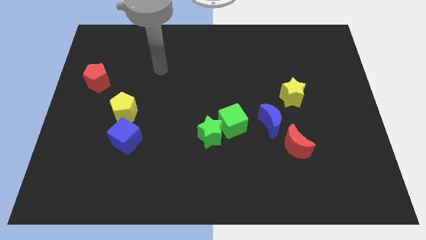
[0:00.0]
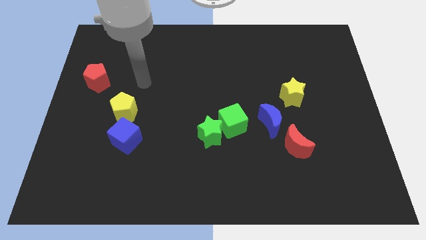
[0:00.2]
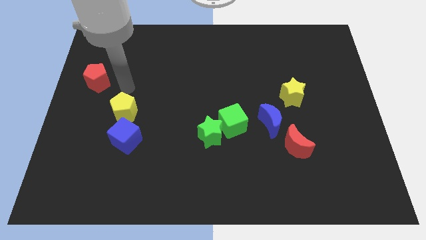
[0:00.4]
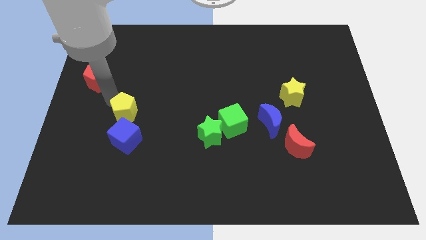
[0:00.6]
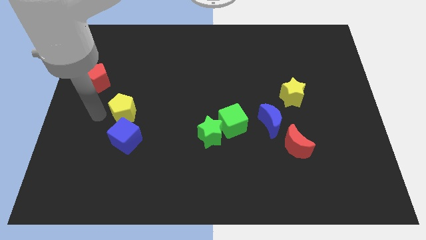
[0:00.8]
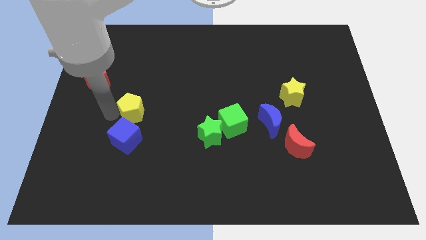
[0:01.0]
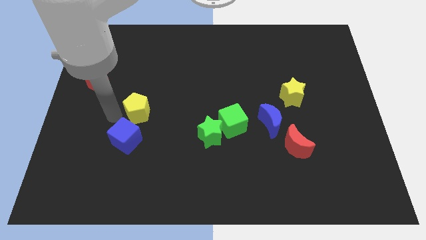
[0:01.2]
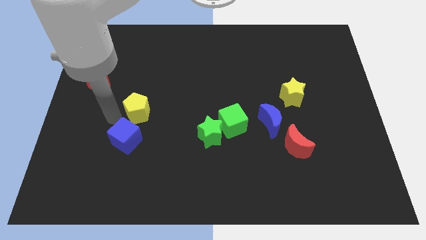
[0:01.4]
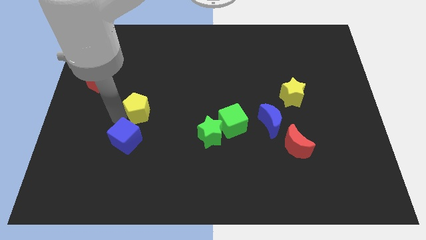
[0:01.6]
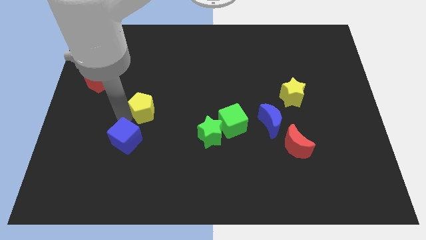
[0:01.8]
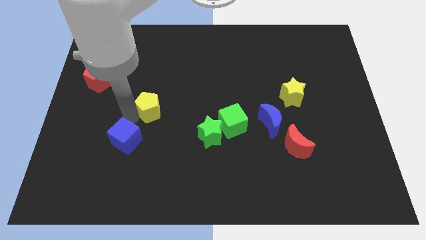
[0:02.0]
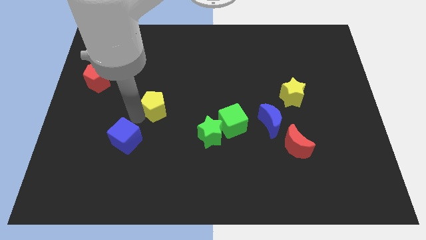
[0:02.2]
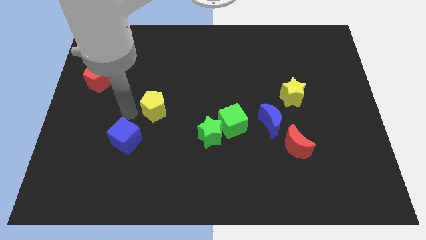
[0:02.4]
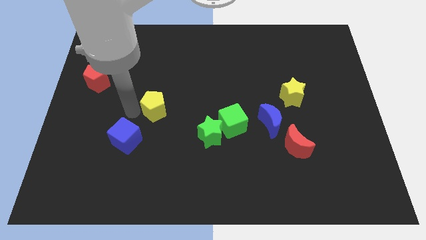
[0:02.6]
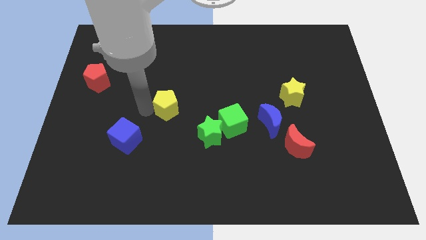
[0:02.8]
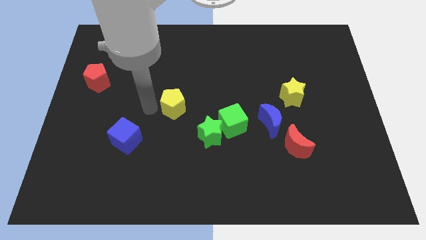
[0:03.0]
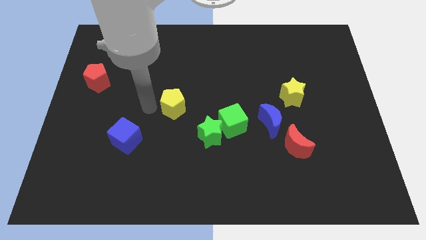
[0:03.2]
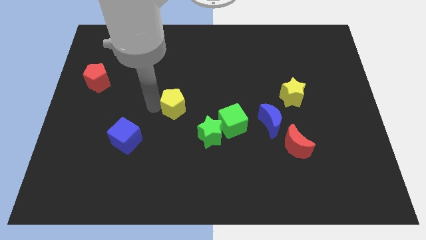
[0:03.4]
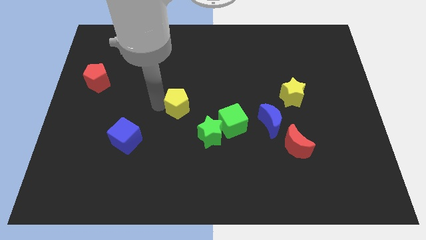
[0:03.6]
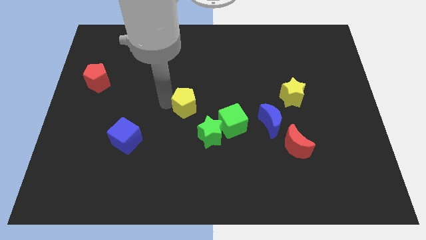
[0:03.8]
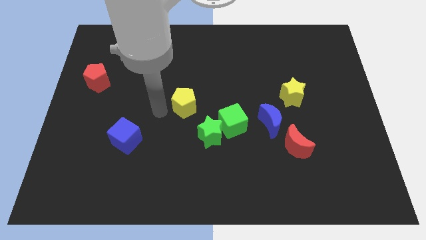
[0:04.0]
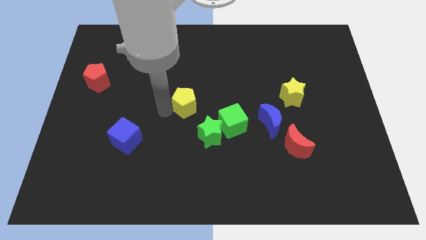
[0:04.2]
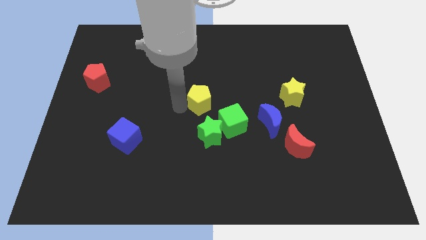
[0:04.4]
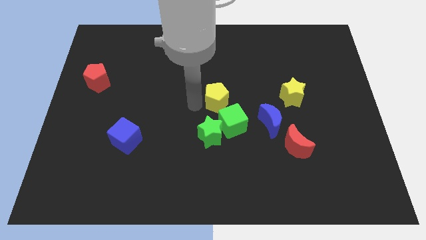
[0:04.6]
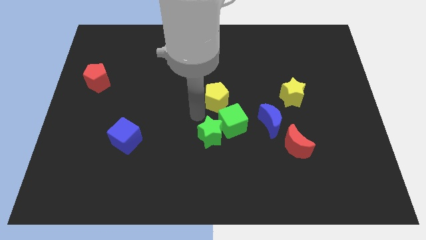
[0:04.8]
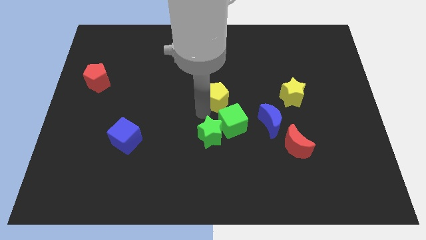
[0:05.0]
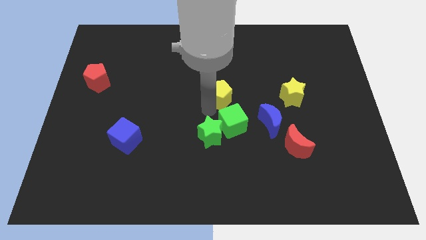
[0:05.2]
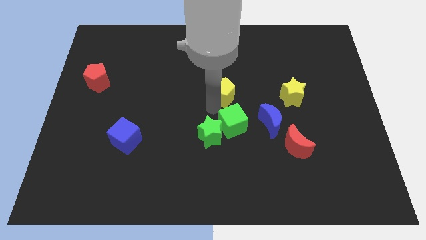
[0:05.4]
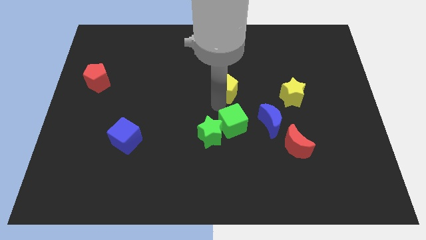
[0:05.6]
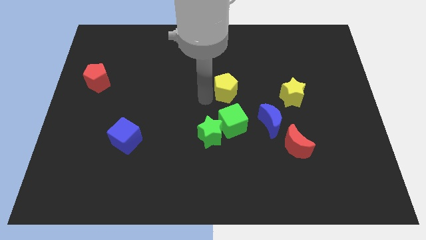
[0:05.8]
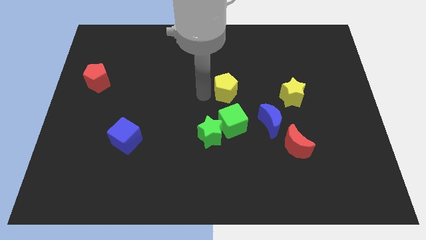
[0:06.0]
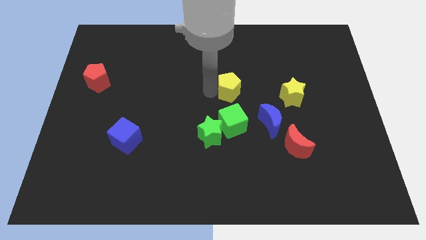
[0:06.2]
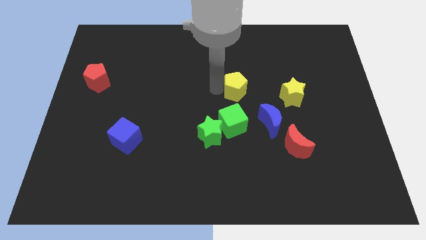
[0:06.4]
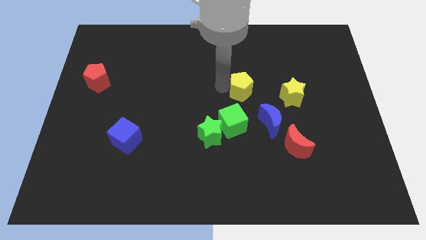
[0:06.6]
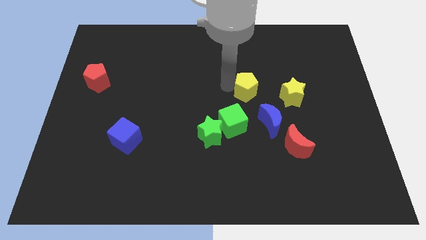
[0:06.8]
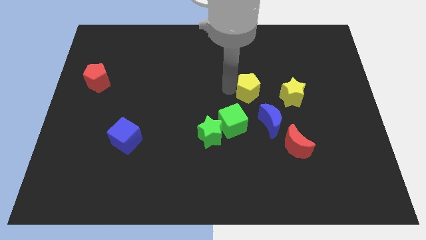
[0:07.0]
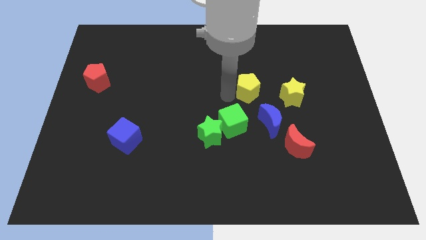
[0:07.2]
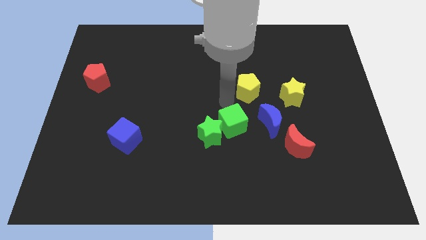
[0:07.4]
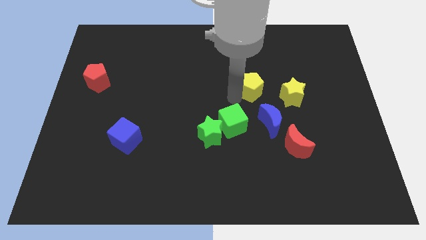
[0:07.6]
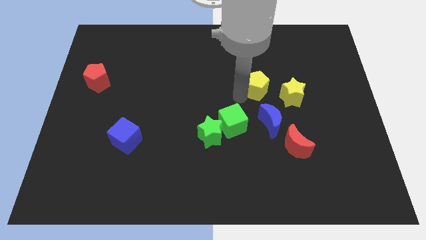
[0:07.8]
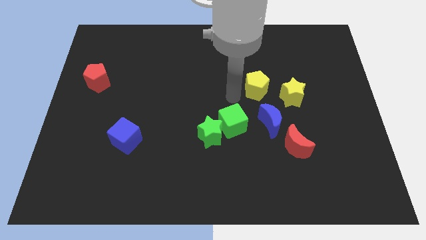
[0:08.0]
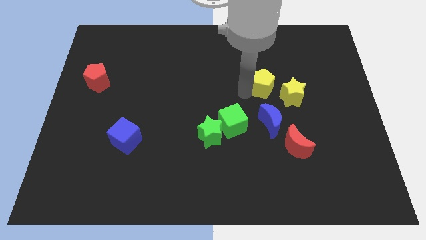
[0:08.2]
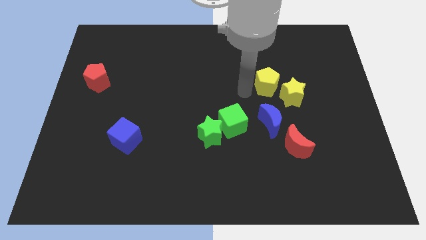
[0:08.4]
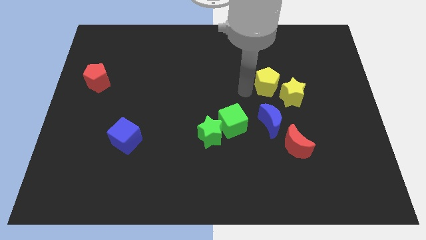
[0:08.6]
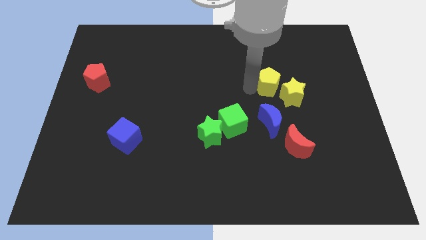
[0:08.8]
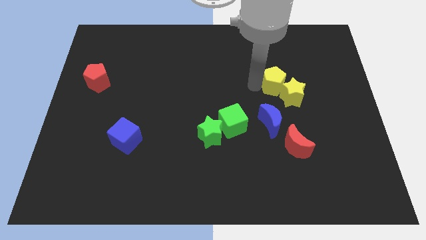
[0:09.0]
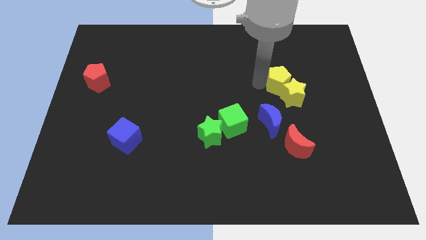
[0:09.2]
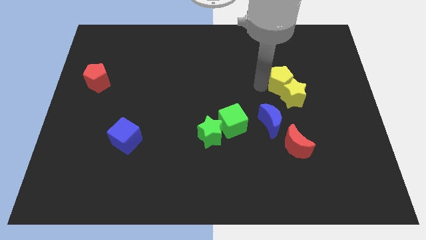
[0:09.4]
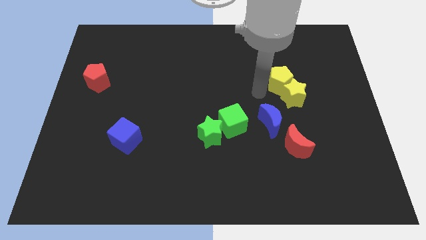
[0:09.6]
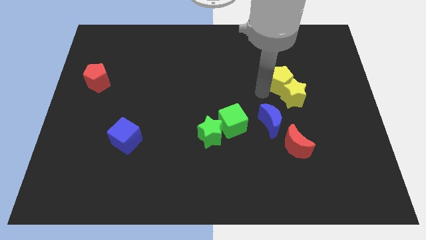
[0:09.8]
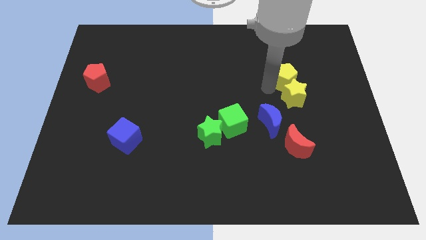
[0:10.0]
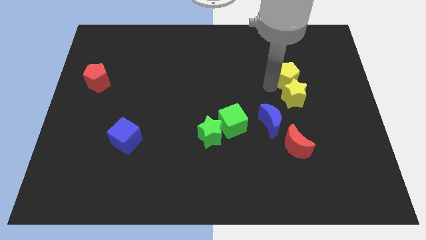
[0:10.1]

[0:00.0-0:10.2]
put the yellow pentagon to the top right of the yellow star

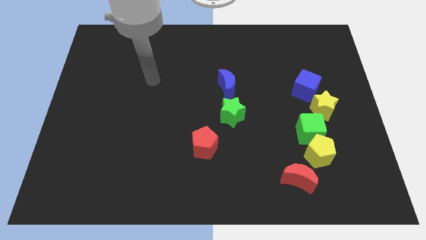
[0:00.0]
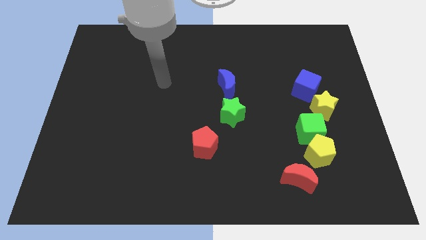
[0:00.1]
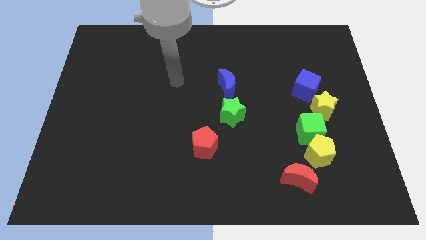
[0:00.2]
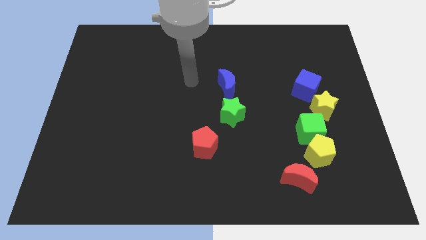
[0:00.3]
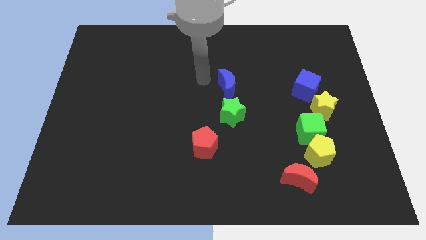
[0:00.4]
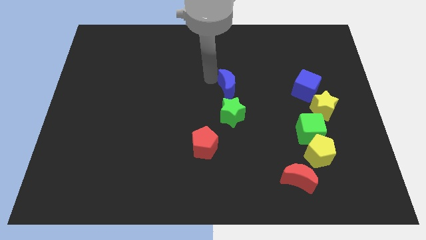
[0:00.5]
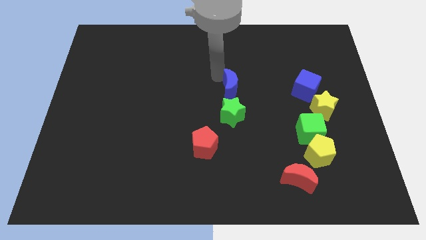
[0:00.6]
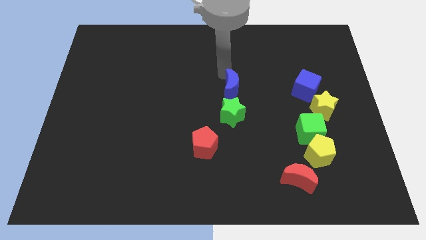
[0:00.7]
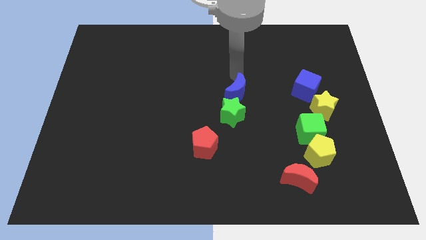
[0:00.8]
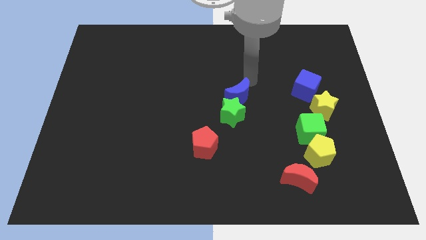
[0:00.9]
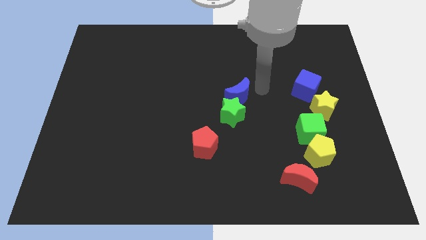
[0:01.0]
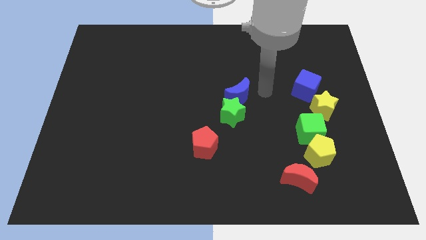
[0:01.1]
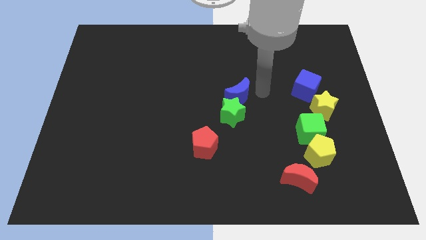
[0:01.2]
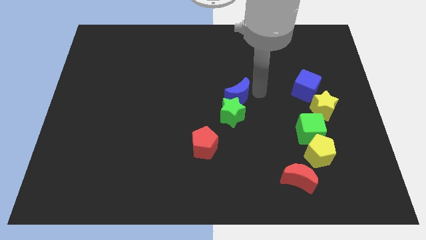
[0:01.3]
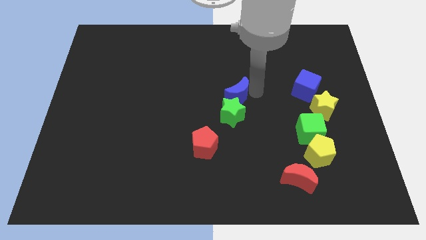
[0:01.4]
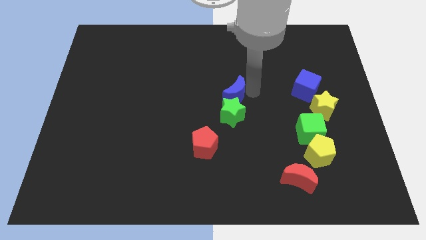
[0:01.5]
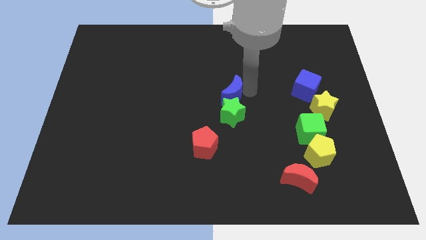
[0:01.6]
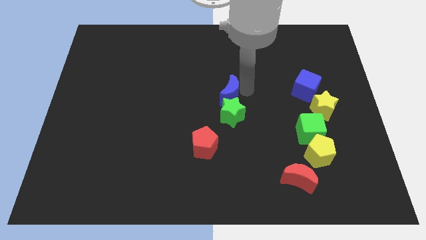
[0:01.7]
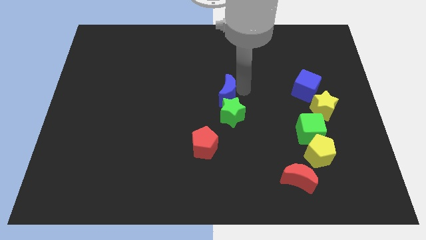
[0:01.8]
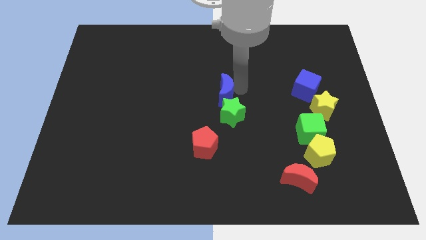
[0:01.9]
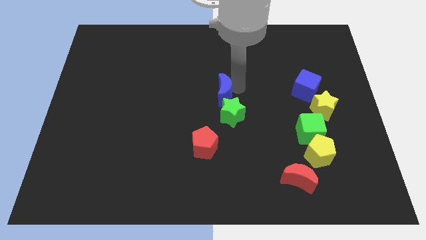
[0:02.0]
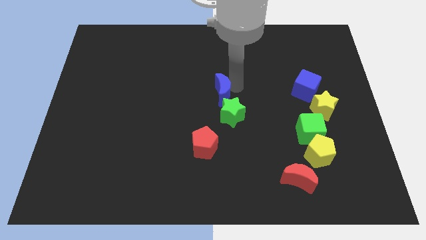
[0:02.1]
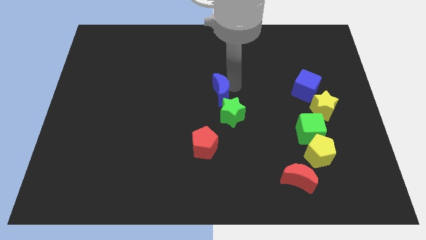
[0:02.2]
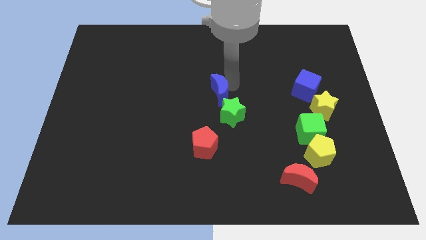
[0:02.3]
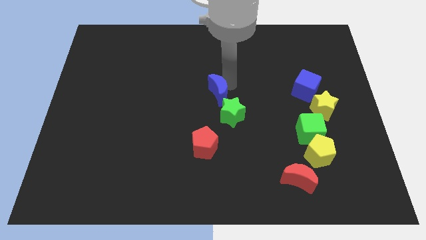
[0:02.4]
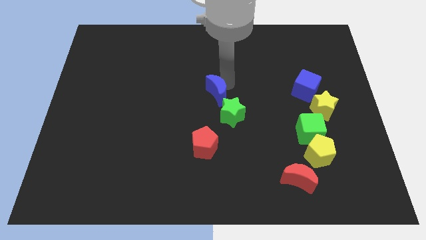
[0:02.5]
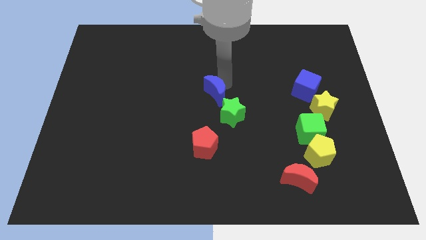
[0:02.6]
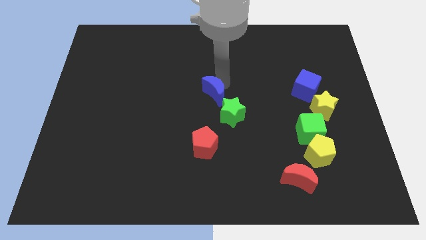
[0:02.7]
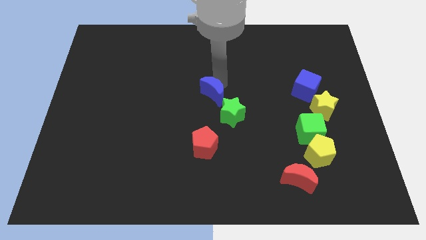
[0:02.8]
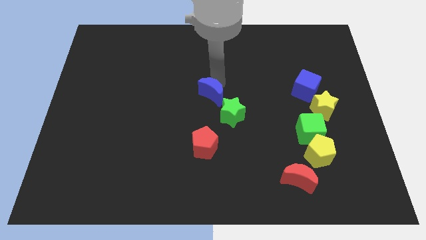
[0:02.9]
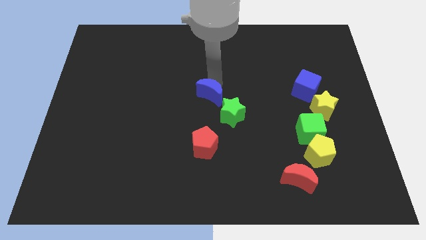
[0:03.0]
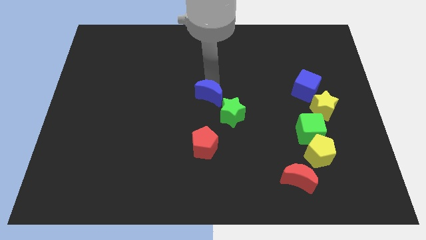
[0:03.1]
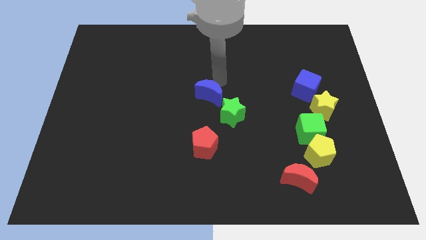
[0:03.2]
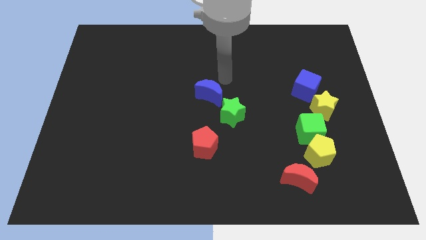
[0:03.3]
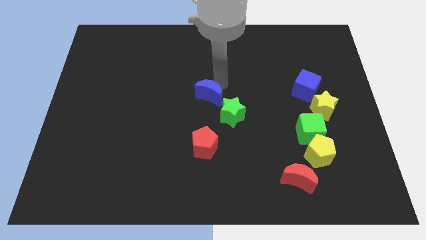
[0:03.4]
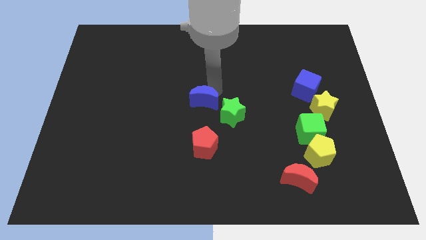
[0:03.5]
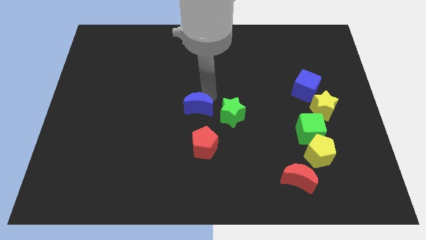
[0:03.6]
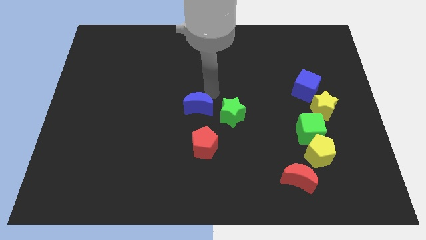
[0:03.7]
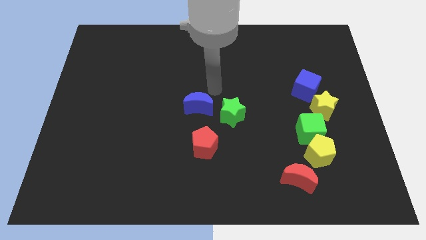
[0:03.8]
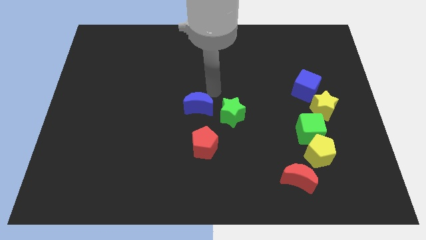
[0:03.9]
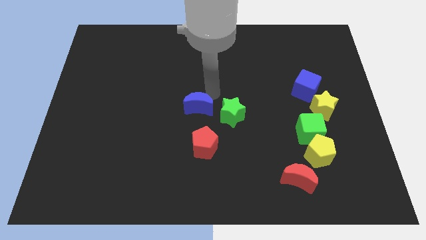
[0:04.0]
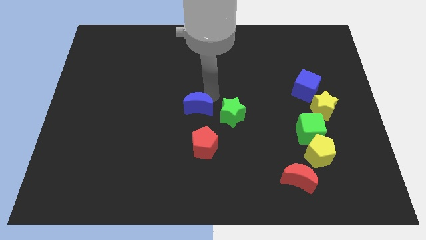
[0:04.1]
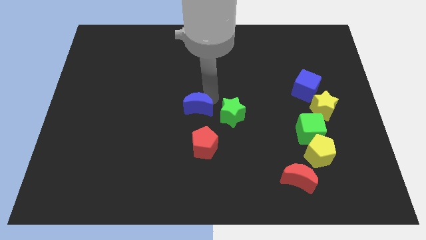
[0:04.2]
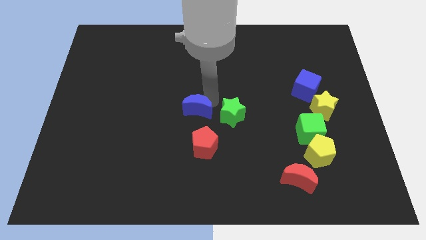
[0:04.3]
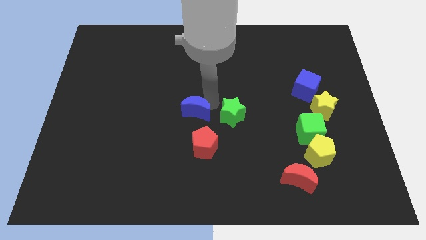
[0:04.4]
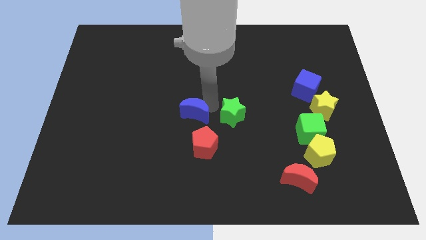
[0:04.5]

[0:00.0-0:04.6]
move the blue moon diagonally up and to the left of the red pentagon
